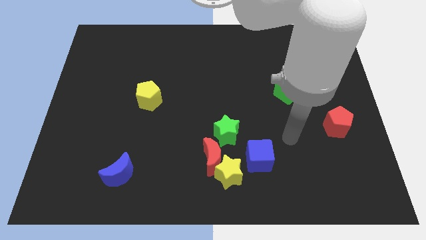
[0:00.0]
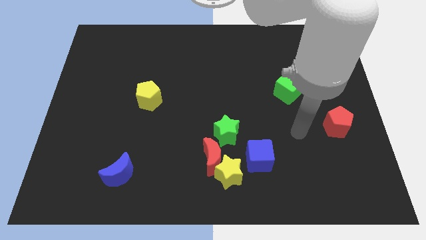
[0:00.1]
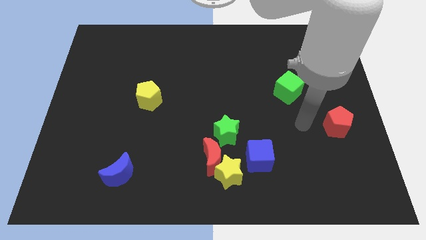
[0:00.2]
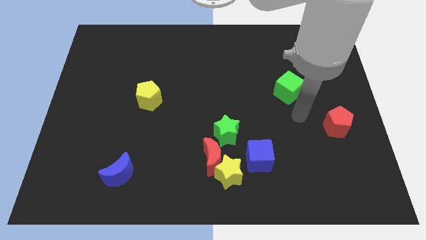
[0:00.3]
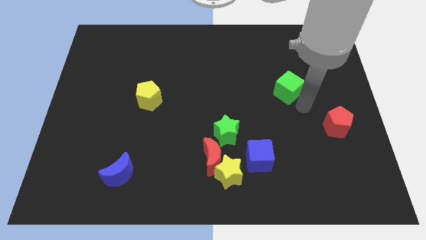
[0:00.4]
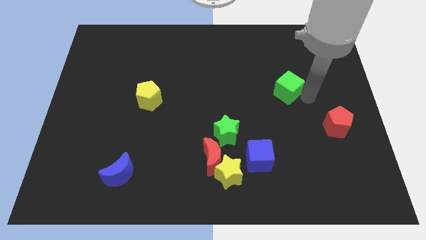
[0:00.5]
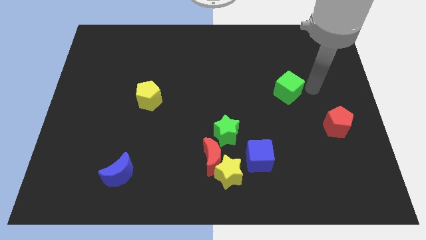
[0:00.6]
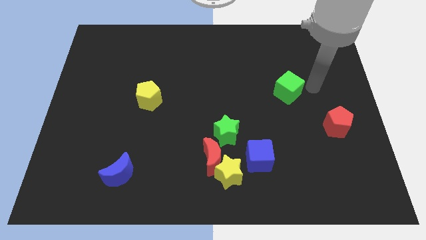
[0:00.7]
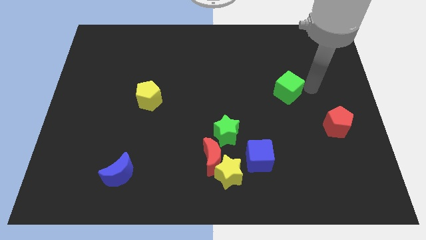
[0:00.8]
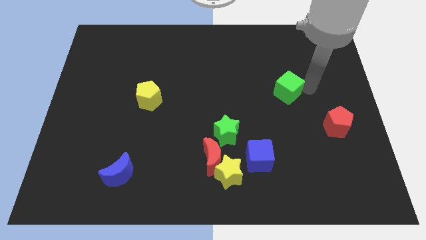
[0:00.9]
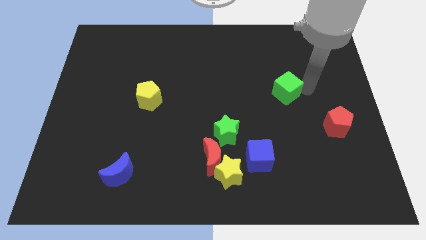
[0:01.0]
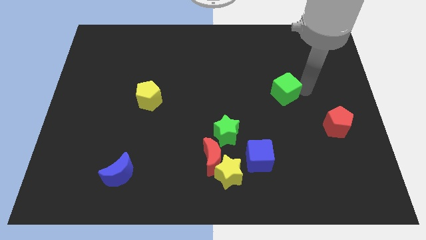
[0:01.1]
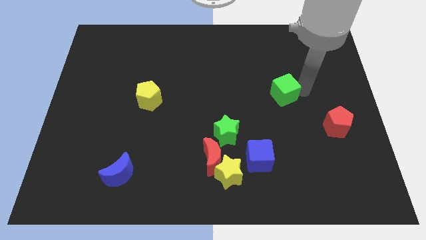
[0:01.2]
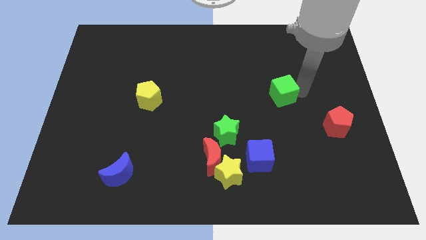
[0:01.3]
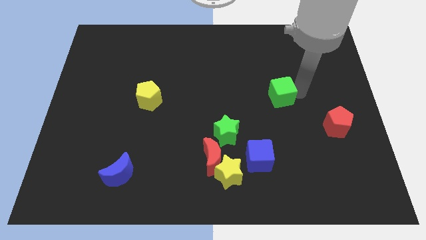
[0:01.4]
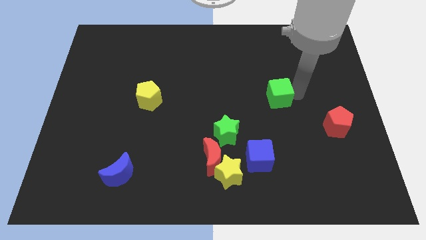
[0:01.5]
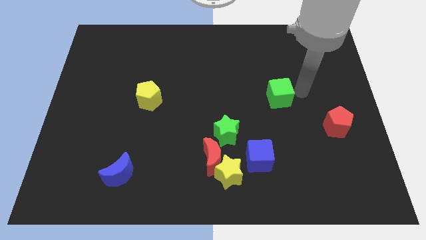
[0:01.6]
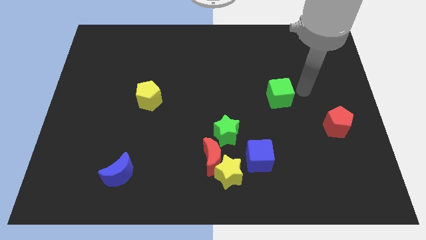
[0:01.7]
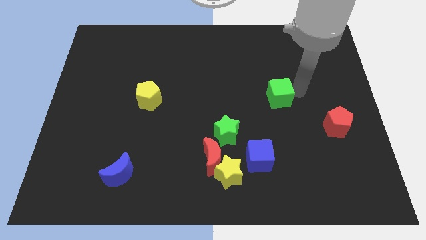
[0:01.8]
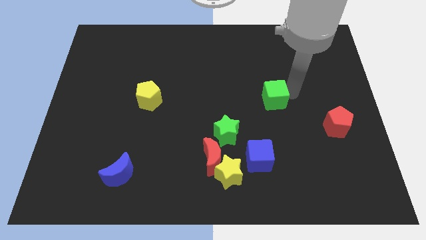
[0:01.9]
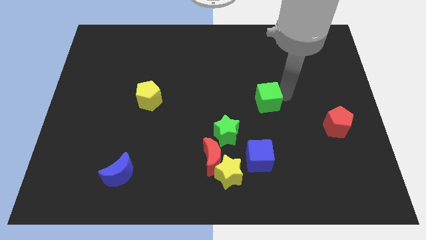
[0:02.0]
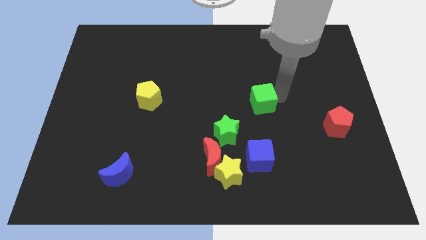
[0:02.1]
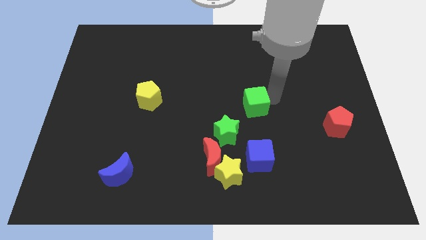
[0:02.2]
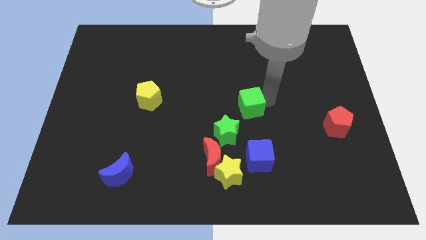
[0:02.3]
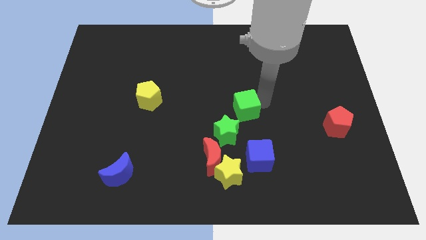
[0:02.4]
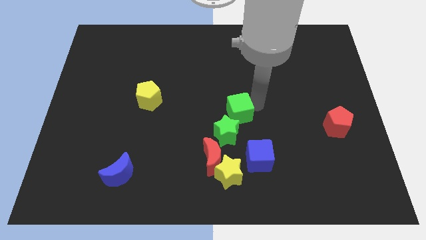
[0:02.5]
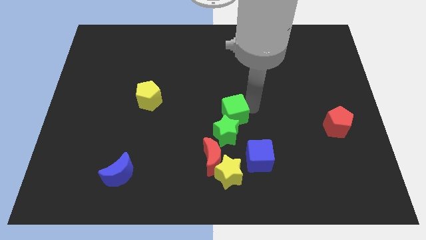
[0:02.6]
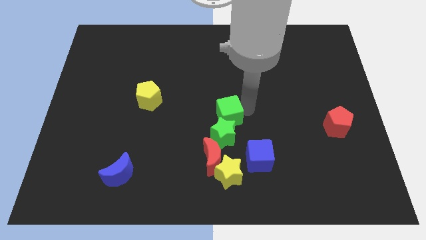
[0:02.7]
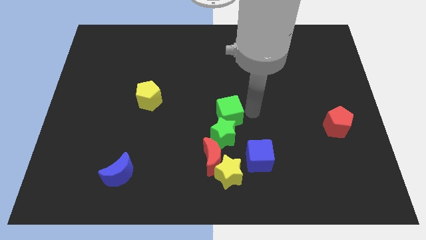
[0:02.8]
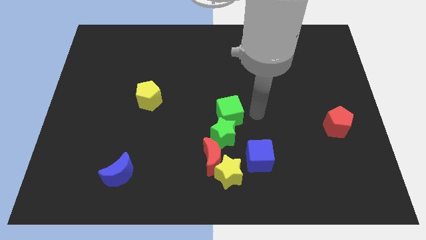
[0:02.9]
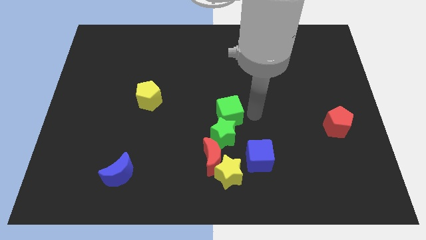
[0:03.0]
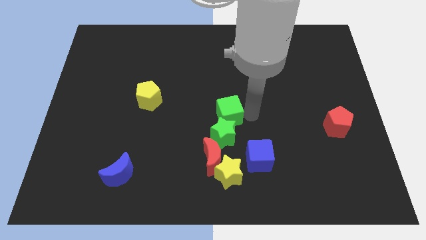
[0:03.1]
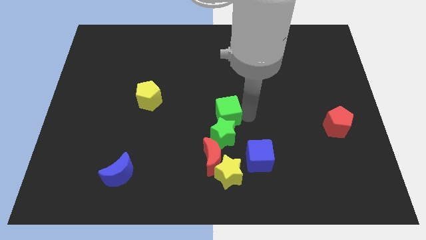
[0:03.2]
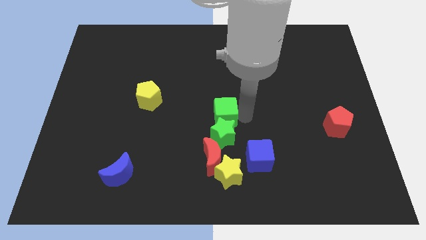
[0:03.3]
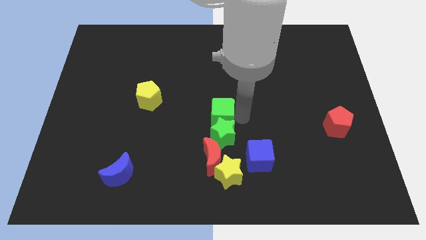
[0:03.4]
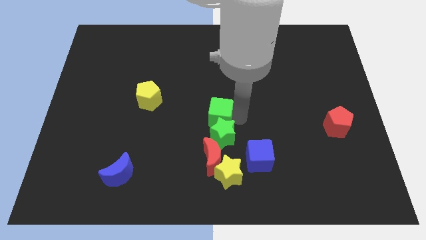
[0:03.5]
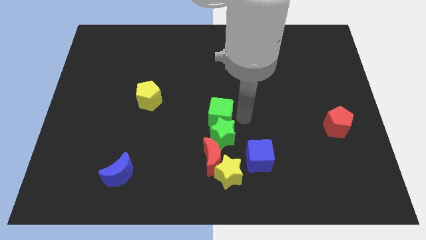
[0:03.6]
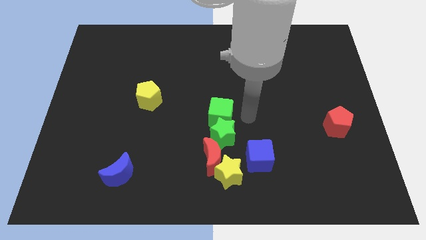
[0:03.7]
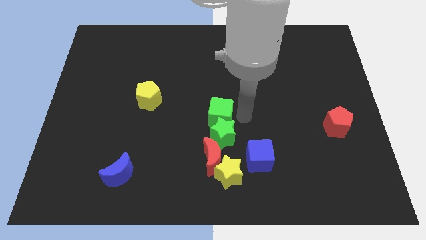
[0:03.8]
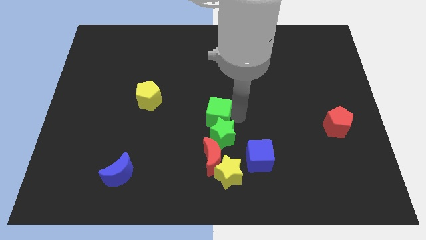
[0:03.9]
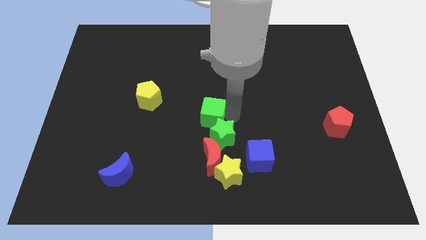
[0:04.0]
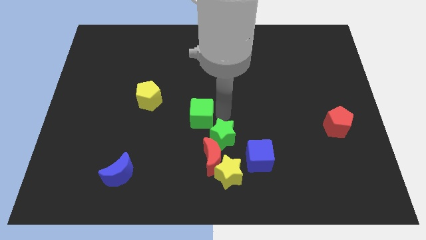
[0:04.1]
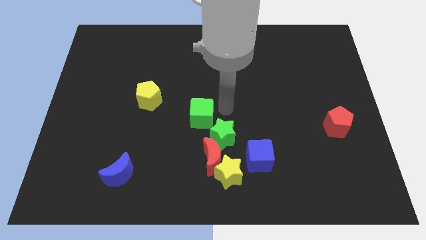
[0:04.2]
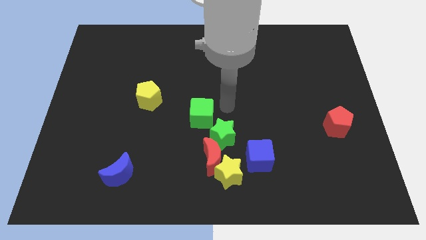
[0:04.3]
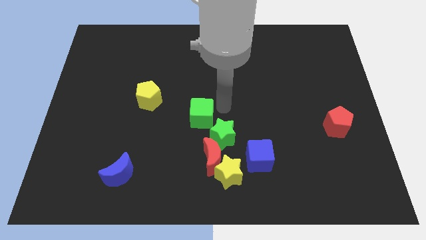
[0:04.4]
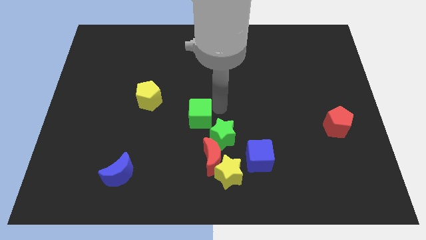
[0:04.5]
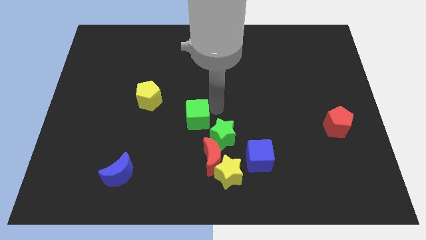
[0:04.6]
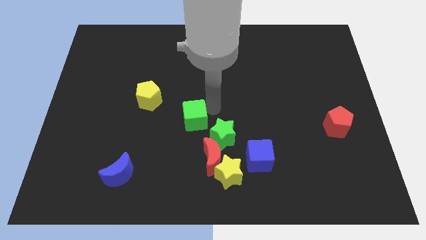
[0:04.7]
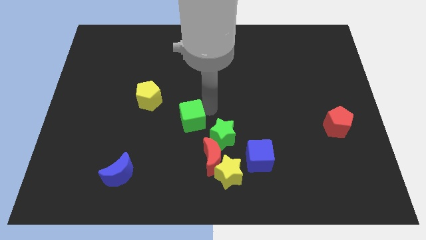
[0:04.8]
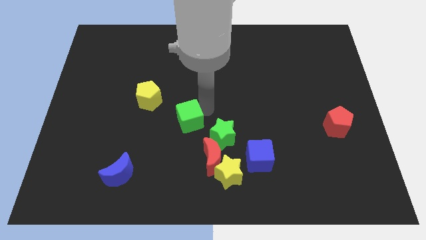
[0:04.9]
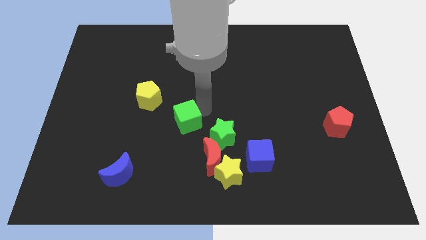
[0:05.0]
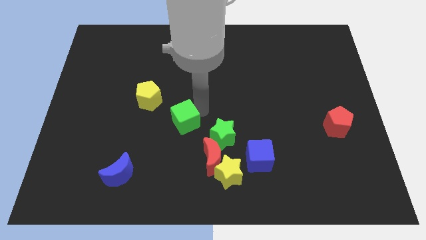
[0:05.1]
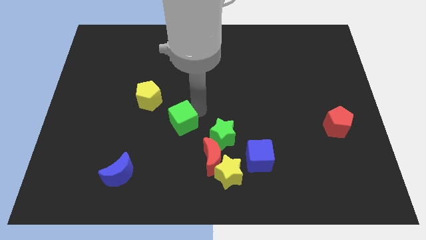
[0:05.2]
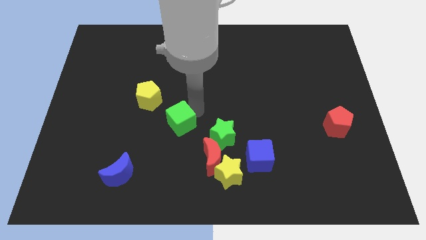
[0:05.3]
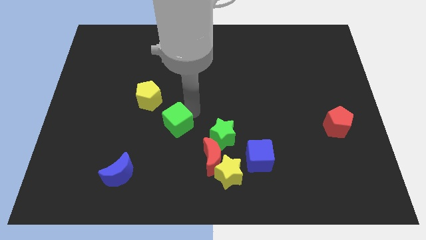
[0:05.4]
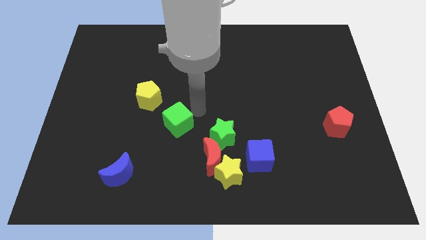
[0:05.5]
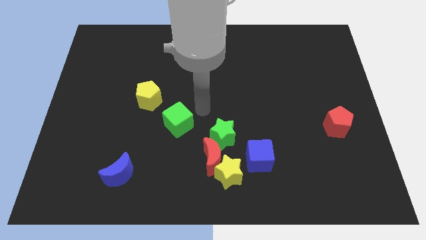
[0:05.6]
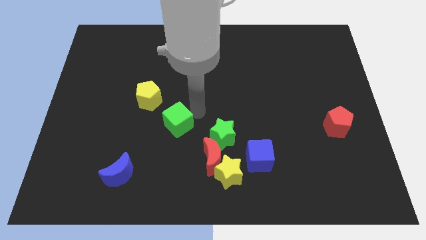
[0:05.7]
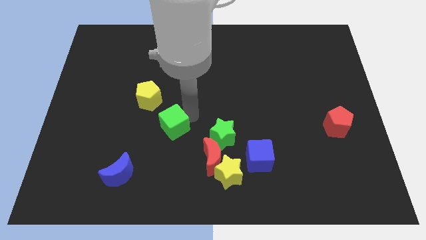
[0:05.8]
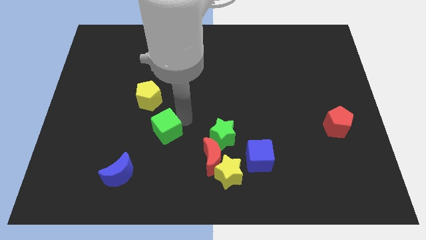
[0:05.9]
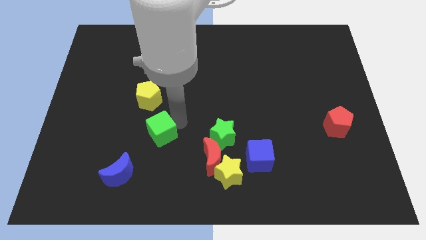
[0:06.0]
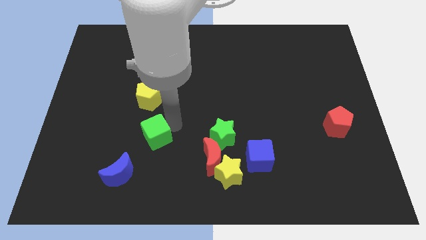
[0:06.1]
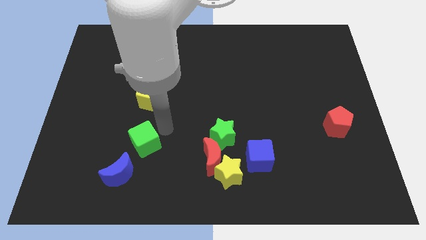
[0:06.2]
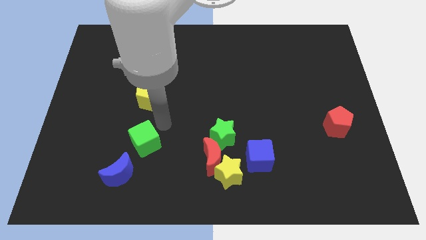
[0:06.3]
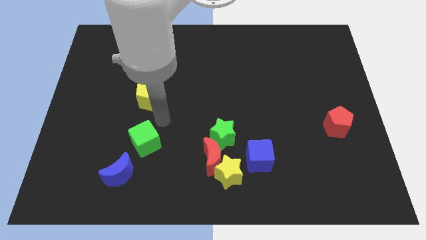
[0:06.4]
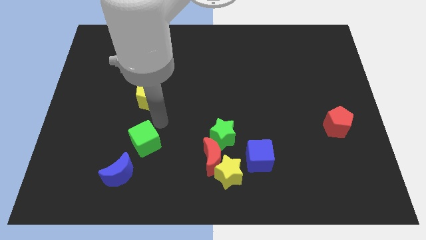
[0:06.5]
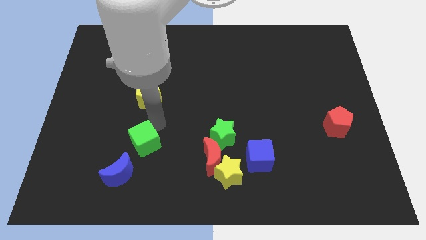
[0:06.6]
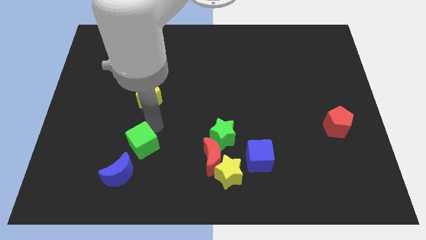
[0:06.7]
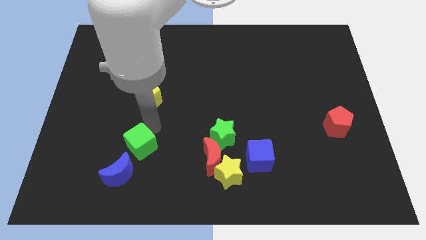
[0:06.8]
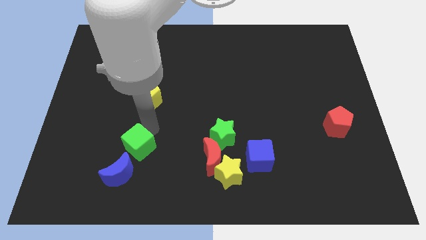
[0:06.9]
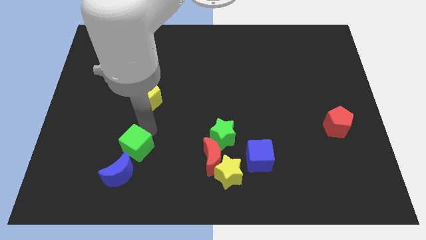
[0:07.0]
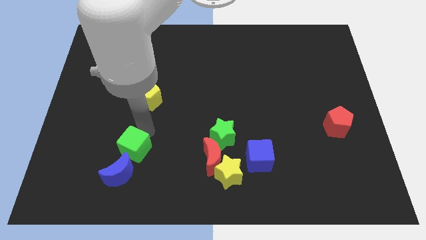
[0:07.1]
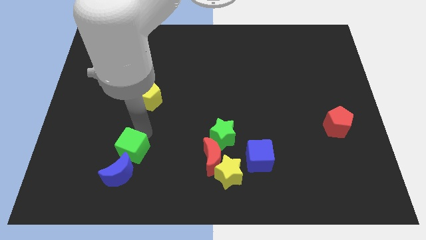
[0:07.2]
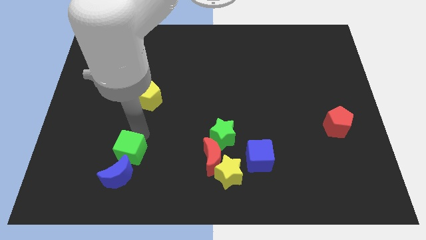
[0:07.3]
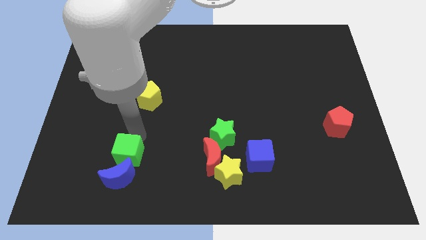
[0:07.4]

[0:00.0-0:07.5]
move the green cube close to the blue moon

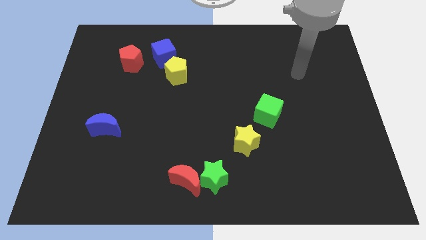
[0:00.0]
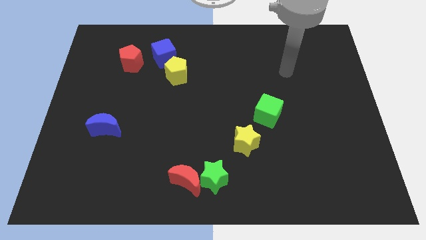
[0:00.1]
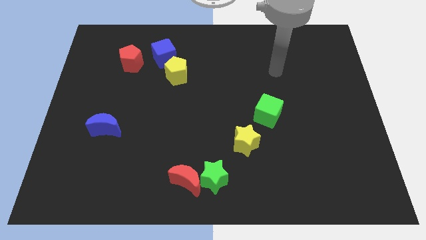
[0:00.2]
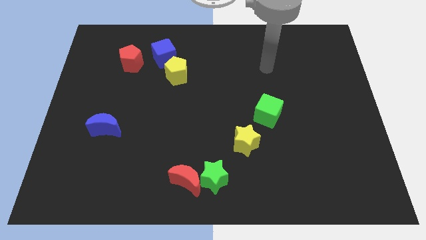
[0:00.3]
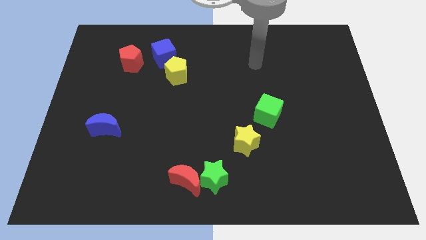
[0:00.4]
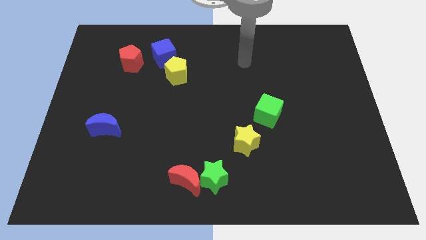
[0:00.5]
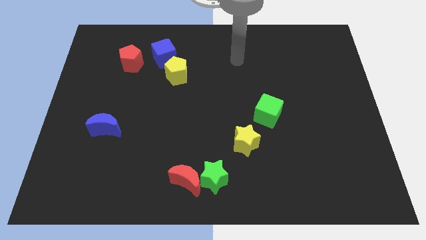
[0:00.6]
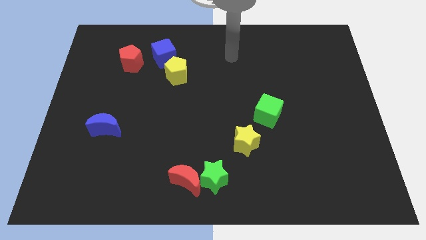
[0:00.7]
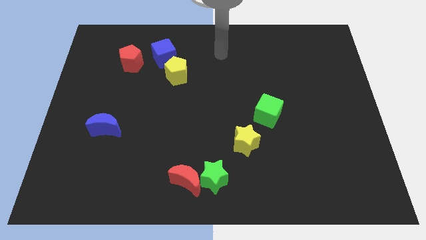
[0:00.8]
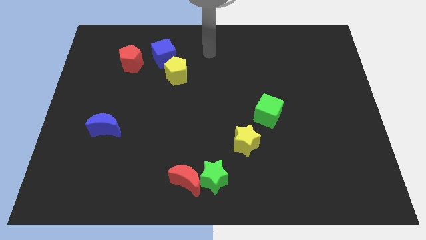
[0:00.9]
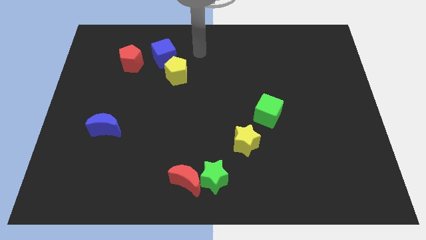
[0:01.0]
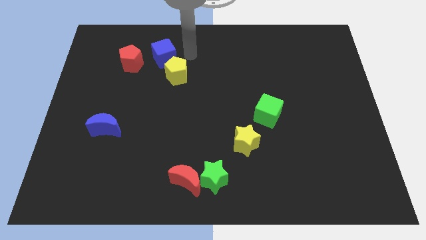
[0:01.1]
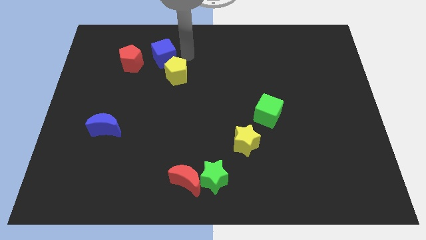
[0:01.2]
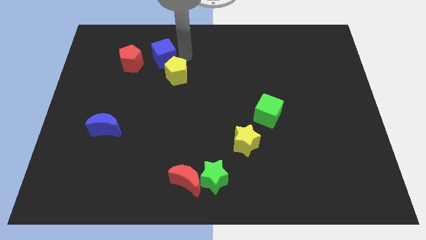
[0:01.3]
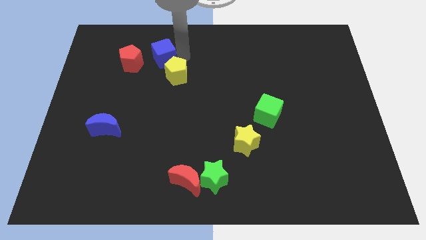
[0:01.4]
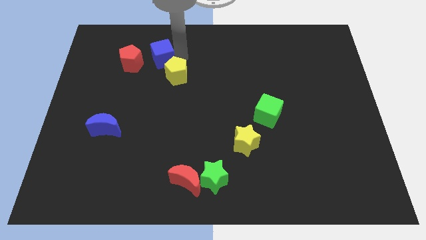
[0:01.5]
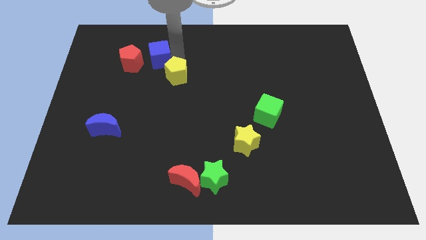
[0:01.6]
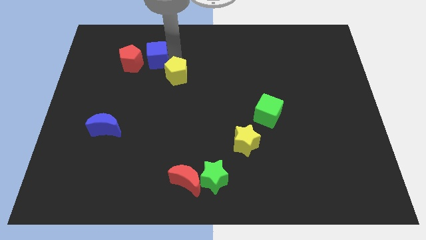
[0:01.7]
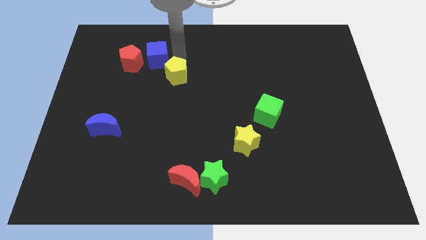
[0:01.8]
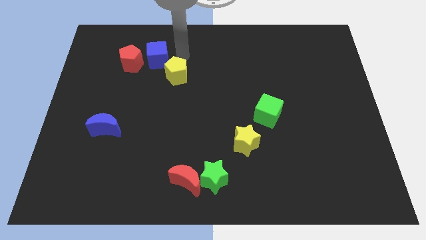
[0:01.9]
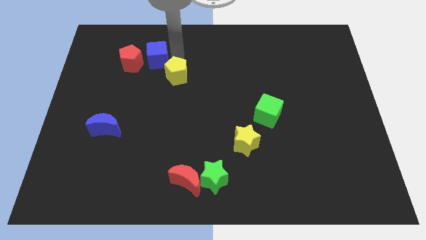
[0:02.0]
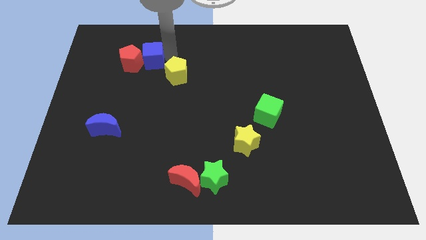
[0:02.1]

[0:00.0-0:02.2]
move the blue cube to the red pentagon
